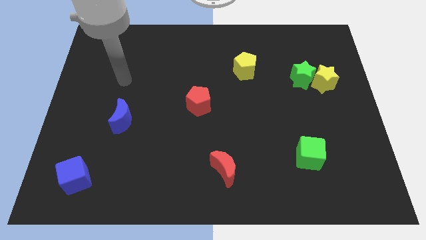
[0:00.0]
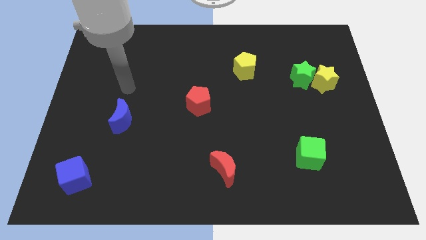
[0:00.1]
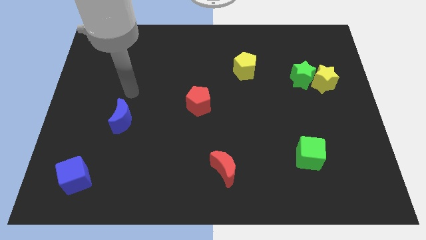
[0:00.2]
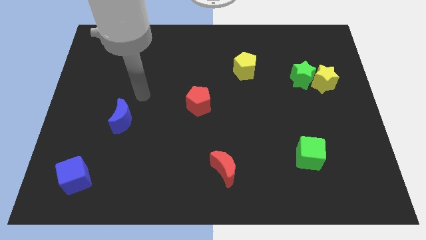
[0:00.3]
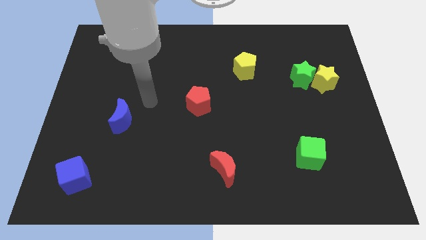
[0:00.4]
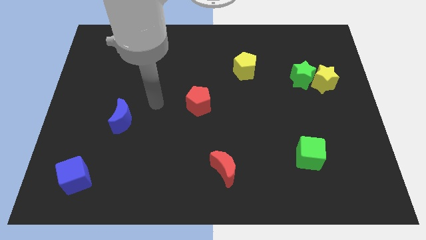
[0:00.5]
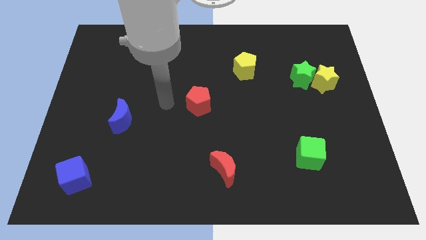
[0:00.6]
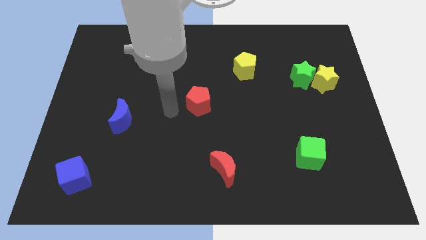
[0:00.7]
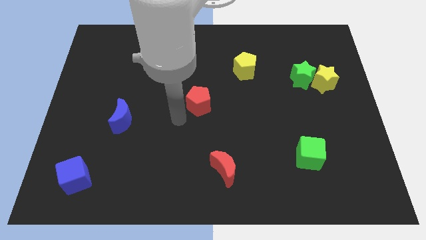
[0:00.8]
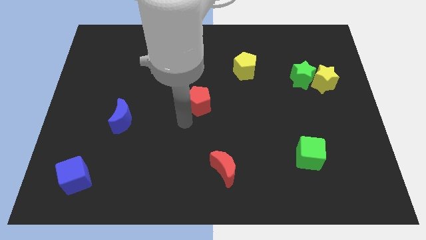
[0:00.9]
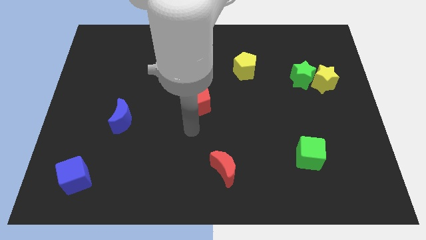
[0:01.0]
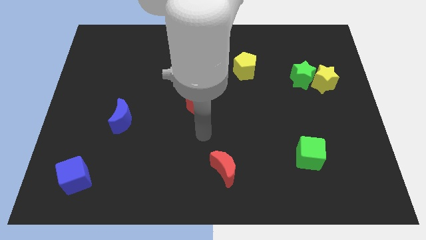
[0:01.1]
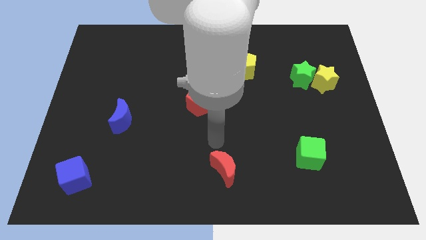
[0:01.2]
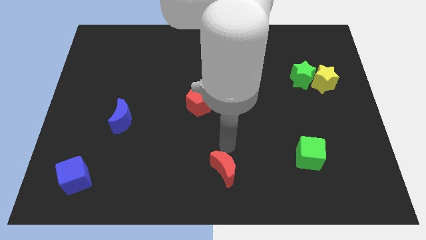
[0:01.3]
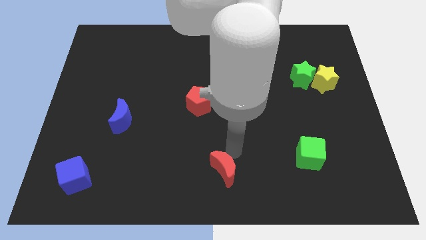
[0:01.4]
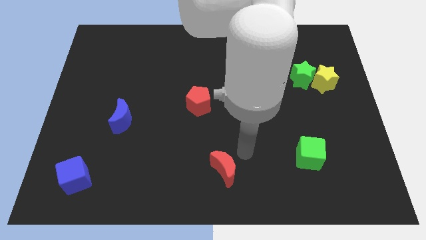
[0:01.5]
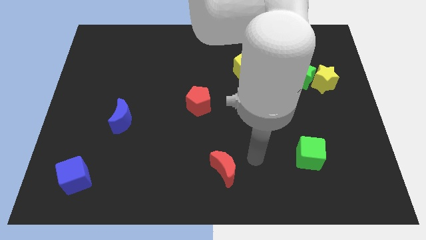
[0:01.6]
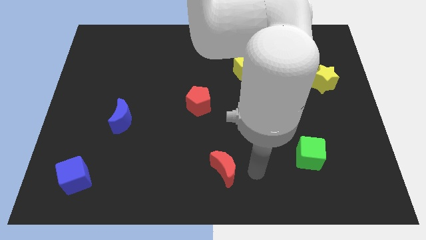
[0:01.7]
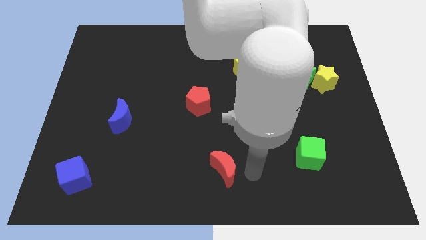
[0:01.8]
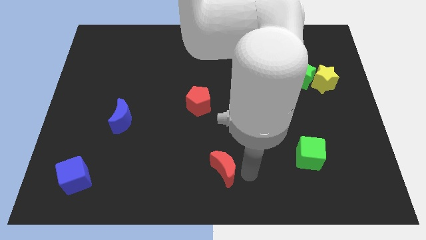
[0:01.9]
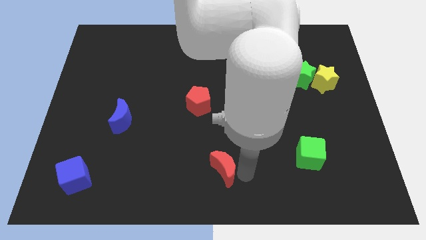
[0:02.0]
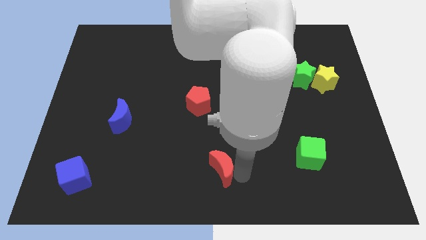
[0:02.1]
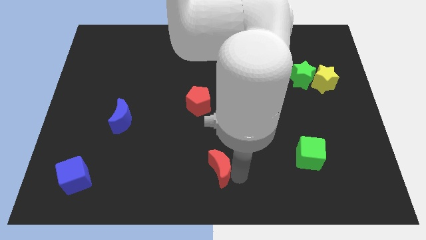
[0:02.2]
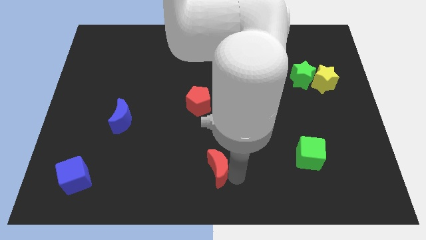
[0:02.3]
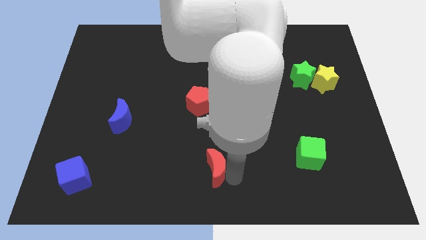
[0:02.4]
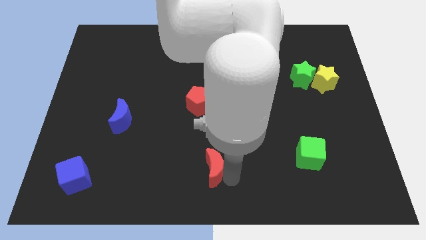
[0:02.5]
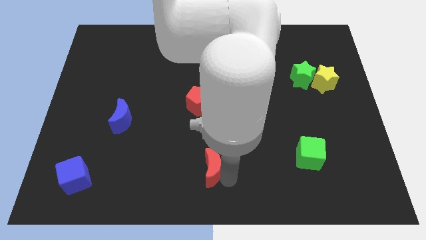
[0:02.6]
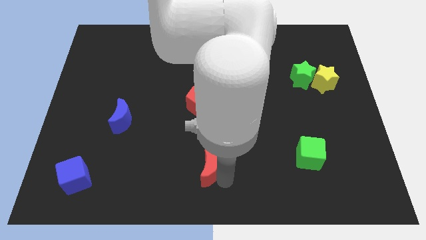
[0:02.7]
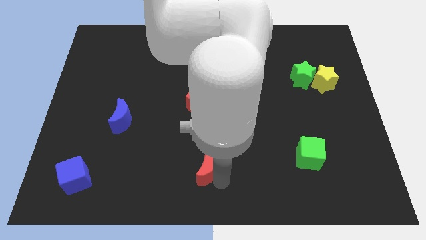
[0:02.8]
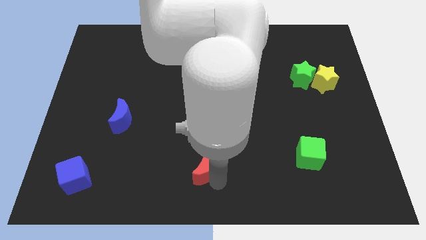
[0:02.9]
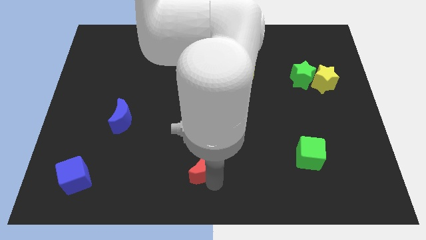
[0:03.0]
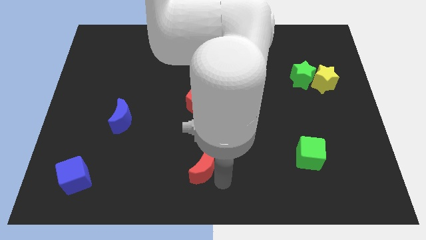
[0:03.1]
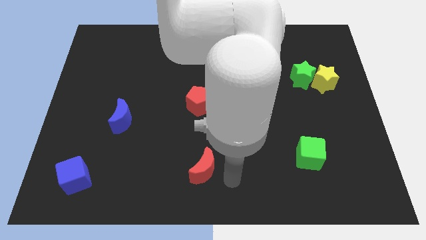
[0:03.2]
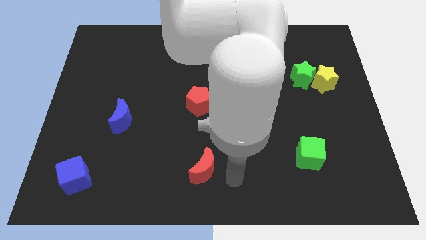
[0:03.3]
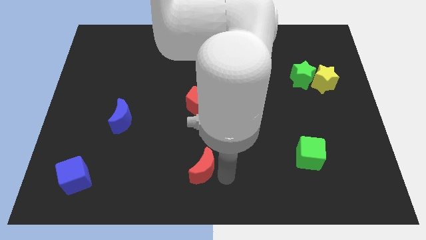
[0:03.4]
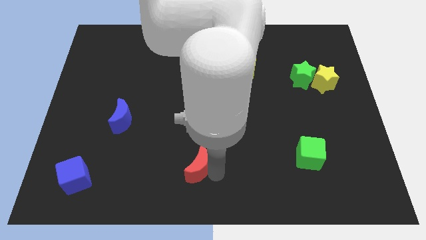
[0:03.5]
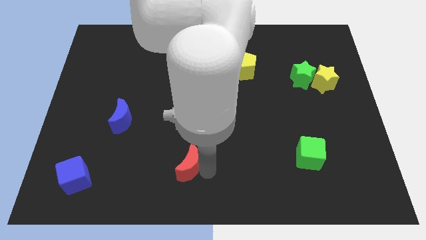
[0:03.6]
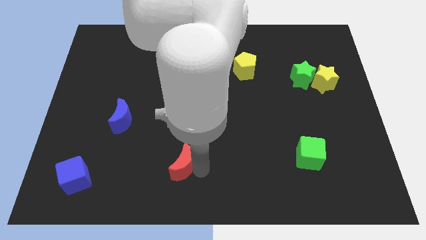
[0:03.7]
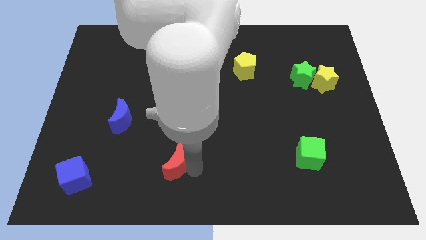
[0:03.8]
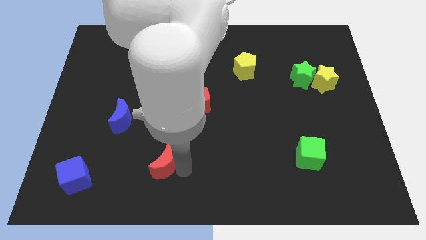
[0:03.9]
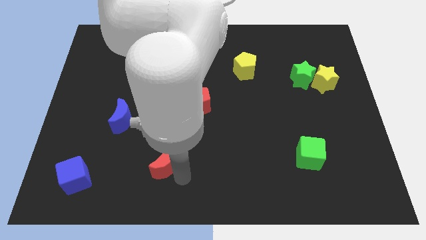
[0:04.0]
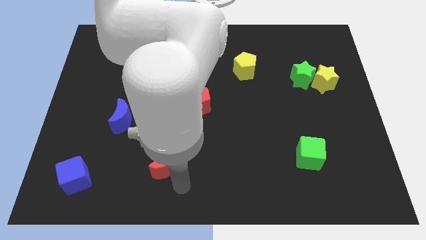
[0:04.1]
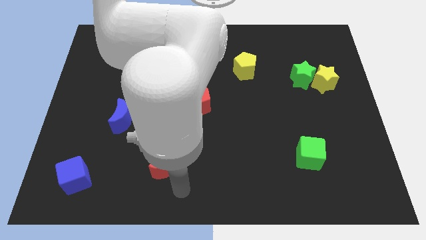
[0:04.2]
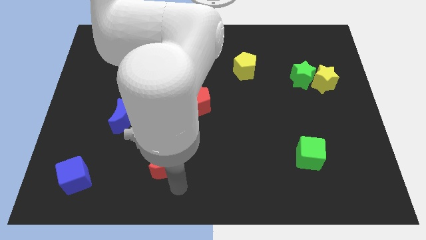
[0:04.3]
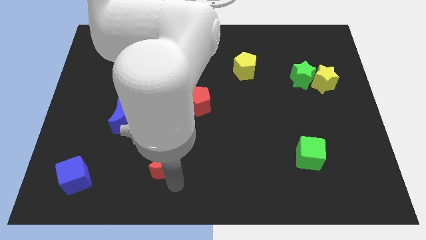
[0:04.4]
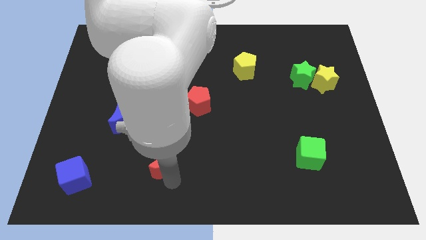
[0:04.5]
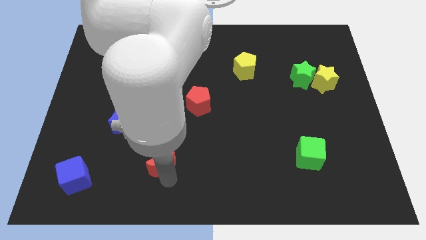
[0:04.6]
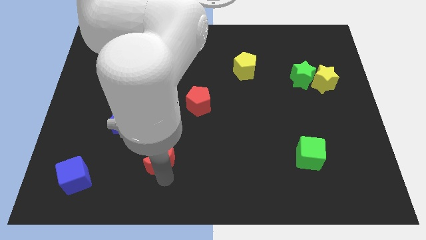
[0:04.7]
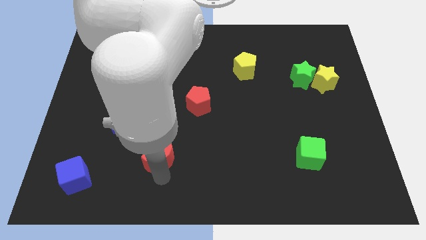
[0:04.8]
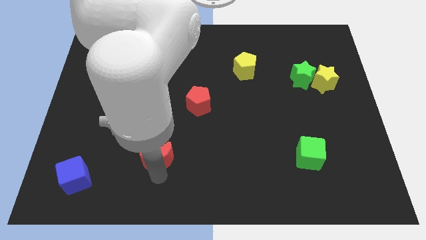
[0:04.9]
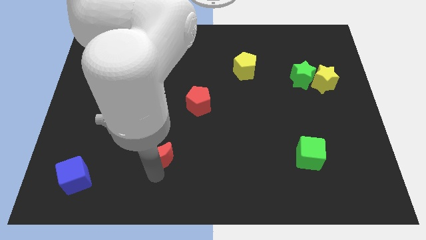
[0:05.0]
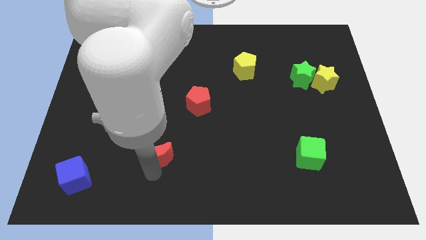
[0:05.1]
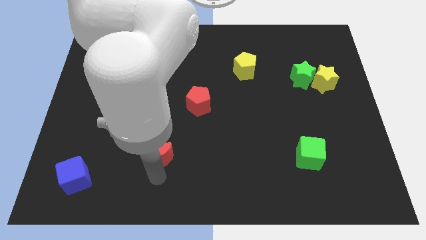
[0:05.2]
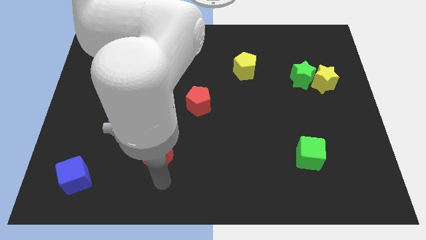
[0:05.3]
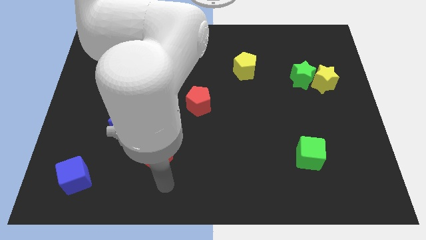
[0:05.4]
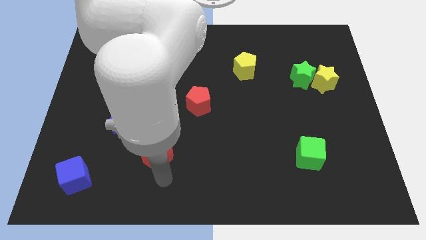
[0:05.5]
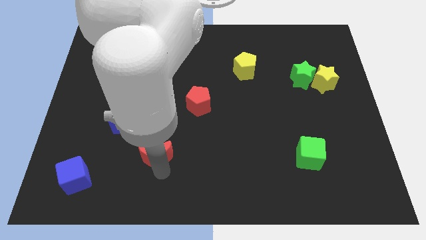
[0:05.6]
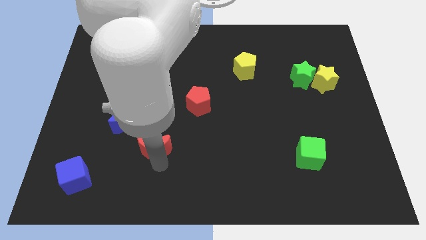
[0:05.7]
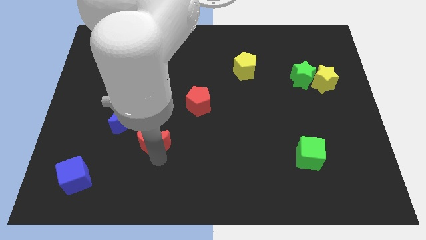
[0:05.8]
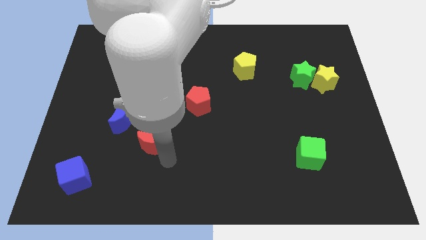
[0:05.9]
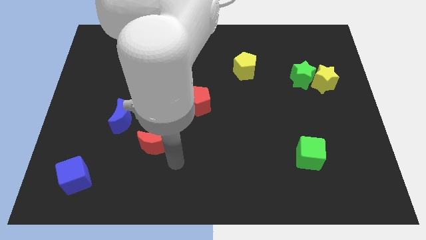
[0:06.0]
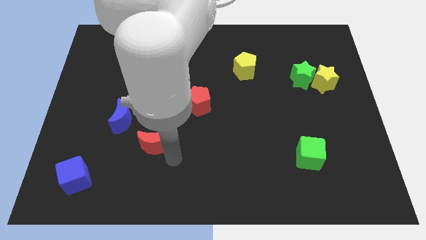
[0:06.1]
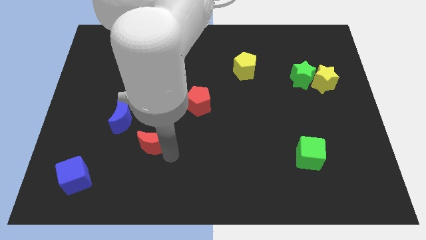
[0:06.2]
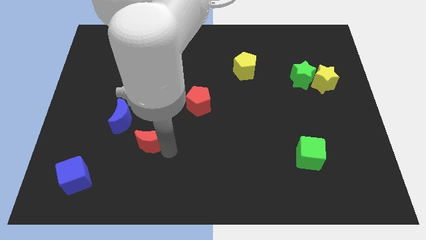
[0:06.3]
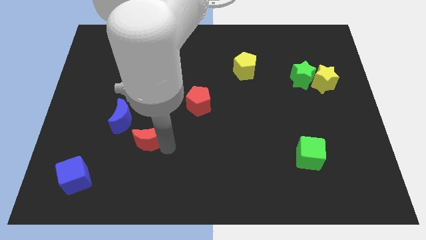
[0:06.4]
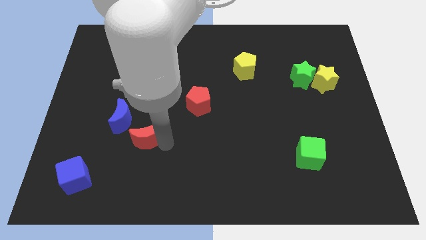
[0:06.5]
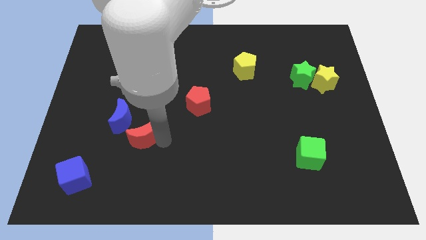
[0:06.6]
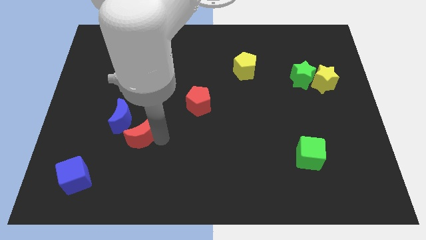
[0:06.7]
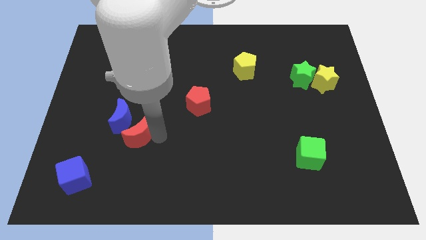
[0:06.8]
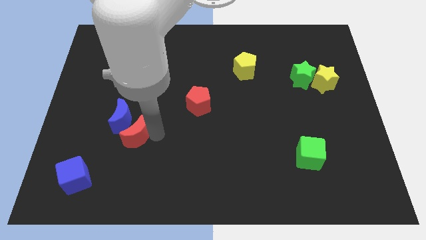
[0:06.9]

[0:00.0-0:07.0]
push the red moon close to the blue moon

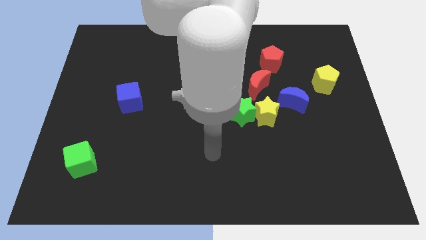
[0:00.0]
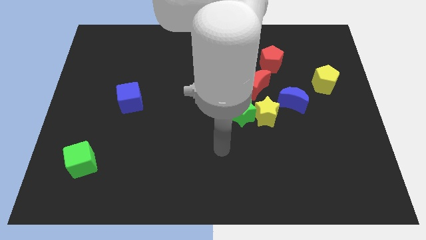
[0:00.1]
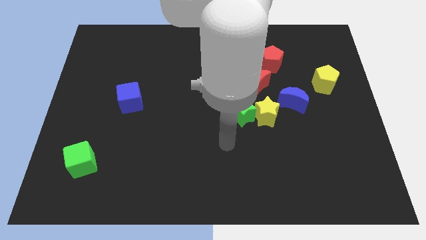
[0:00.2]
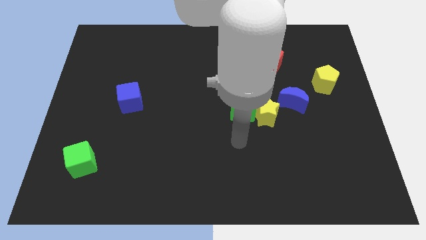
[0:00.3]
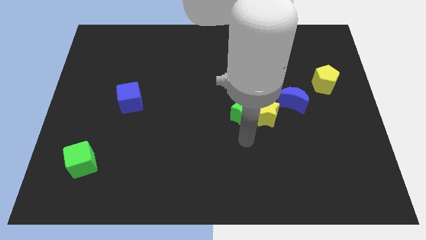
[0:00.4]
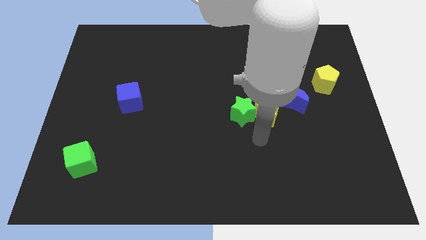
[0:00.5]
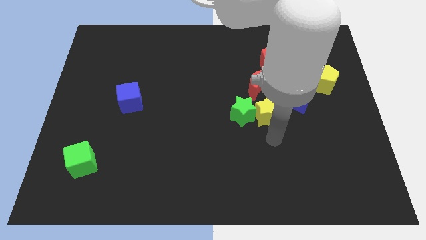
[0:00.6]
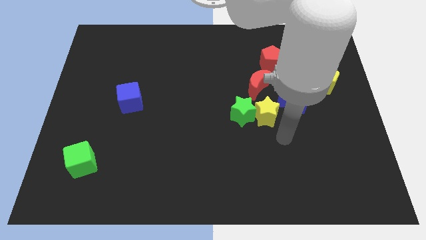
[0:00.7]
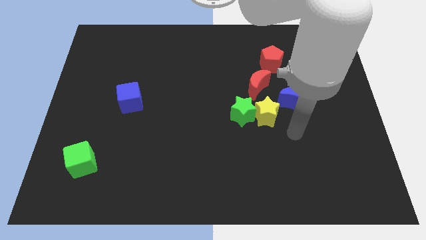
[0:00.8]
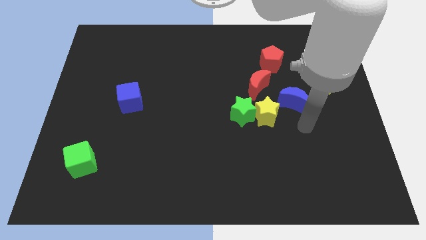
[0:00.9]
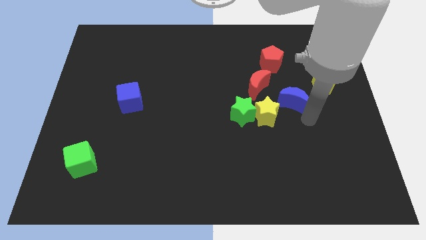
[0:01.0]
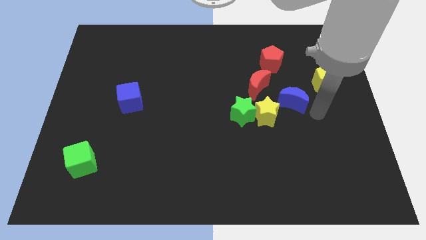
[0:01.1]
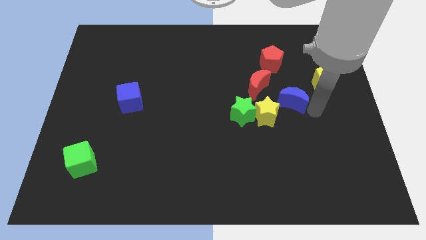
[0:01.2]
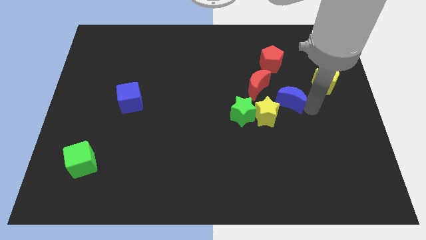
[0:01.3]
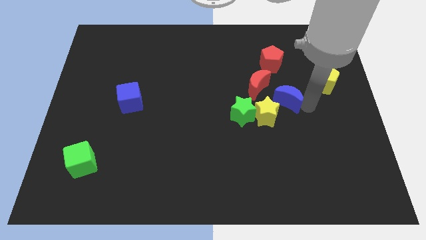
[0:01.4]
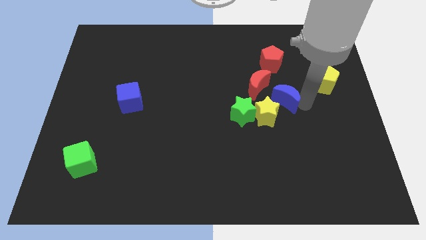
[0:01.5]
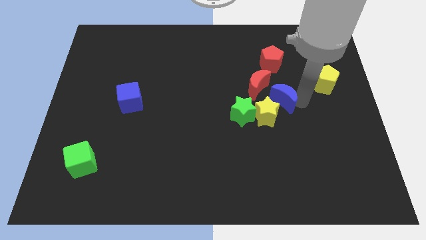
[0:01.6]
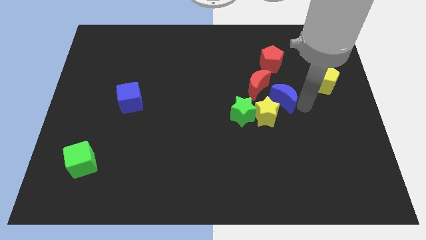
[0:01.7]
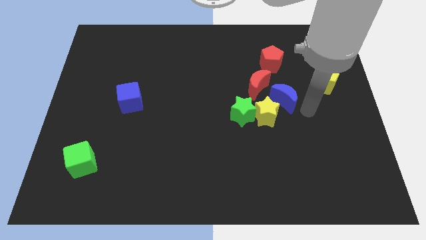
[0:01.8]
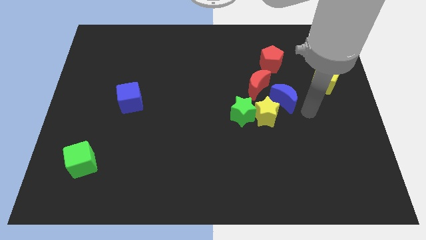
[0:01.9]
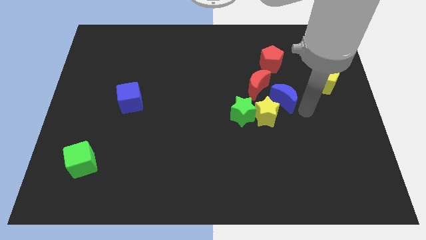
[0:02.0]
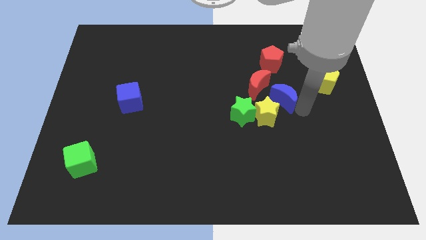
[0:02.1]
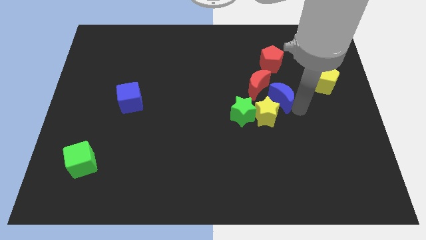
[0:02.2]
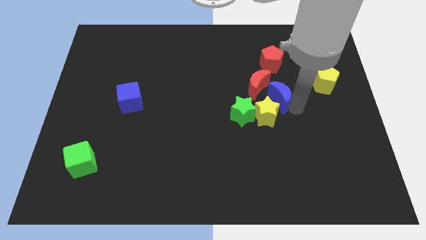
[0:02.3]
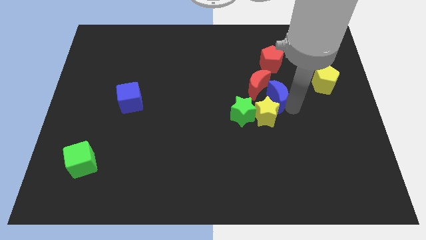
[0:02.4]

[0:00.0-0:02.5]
put the blue moon close to the red moon
